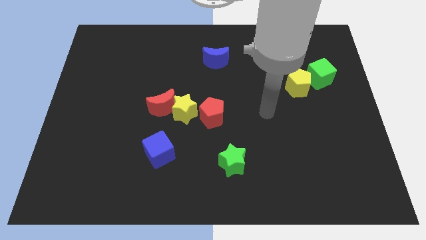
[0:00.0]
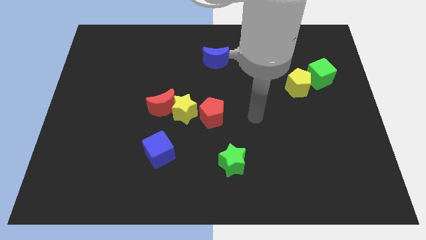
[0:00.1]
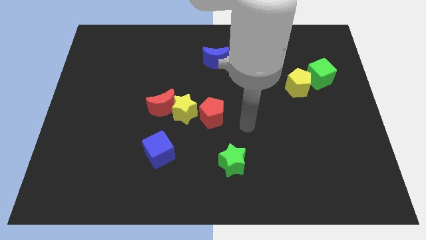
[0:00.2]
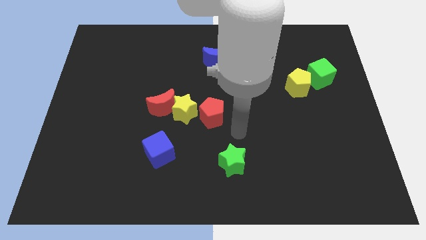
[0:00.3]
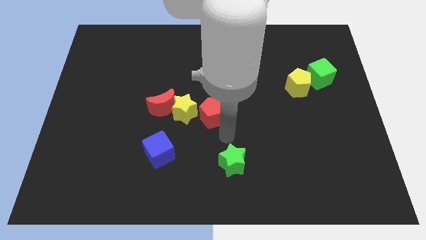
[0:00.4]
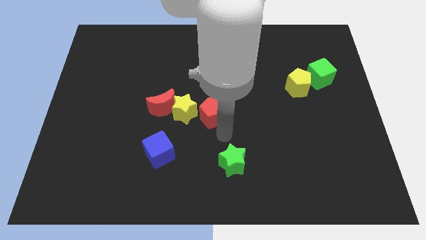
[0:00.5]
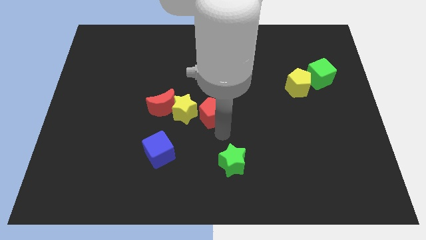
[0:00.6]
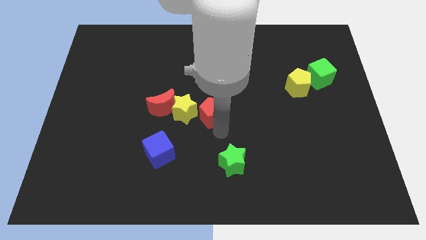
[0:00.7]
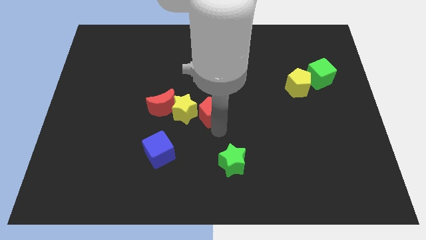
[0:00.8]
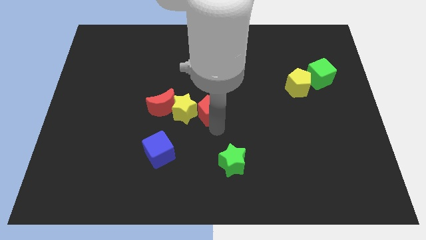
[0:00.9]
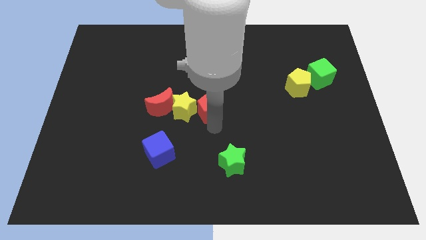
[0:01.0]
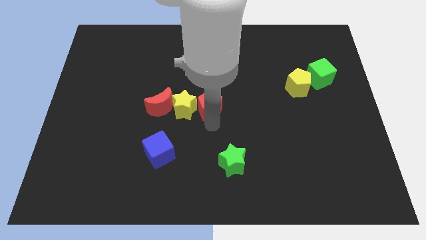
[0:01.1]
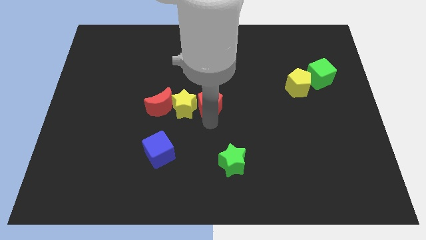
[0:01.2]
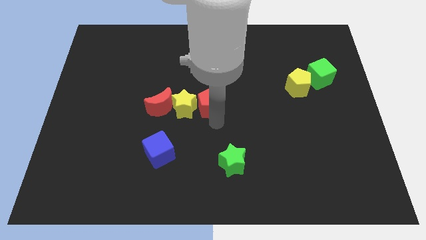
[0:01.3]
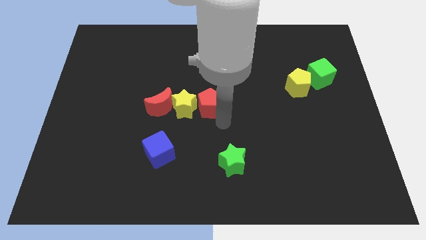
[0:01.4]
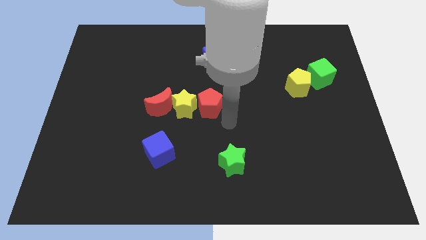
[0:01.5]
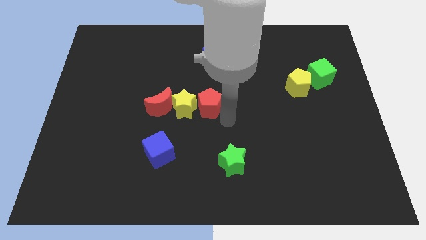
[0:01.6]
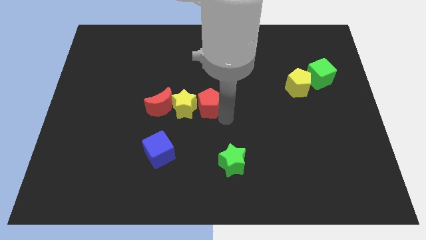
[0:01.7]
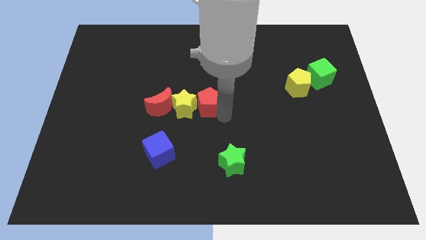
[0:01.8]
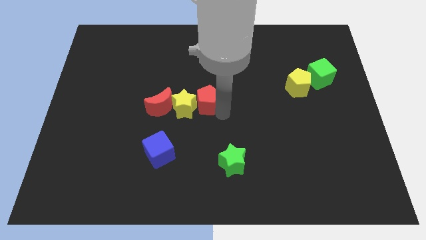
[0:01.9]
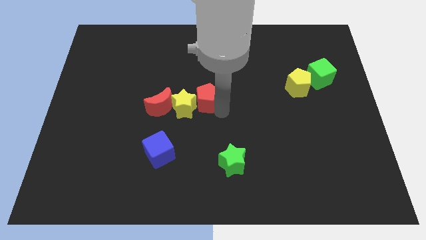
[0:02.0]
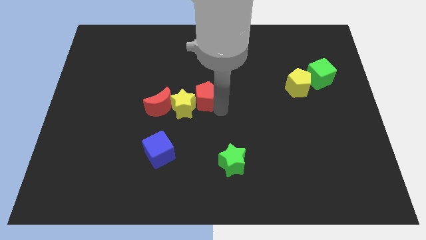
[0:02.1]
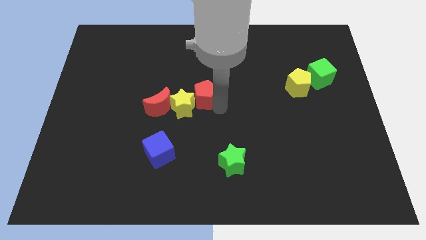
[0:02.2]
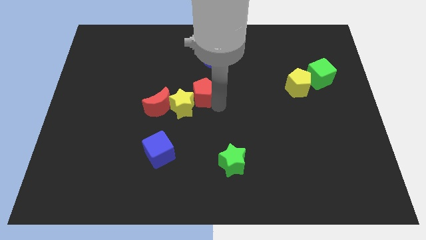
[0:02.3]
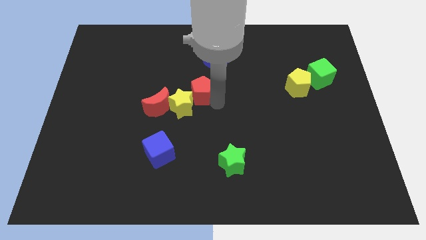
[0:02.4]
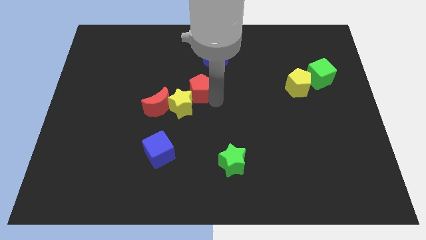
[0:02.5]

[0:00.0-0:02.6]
slide the red pentagon slightly upwards and left

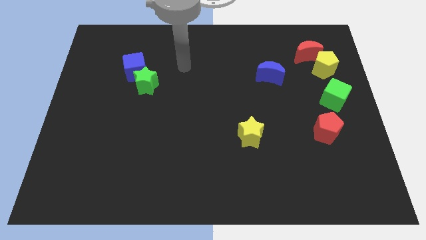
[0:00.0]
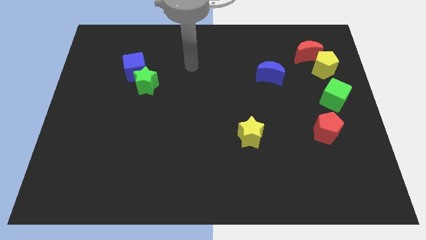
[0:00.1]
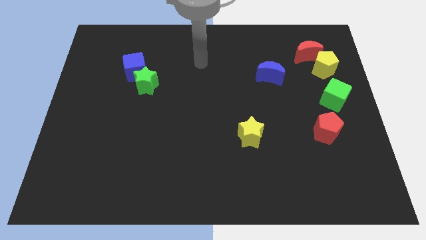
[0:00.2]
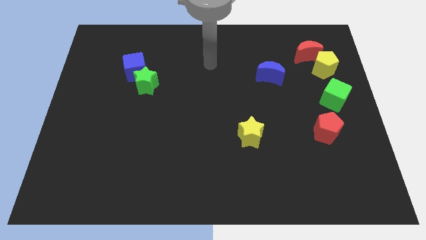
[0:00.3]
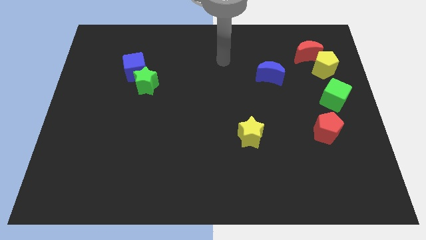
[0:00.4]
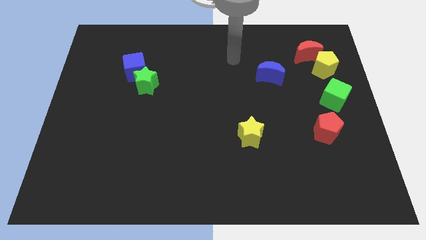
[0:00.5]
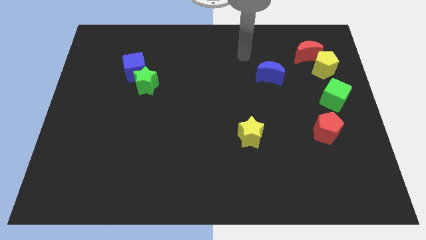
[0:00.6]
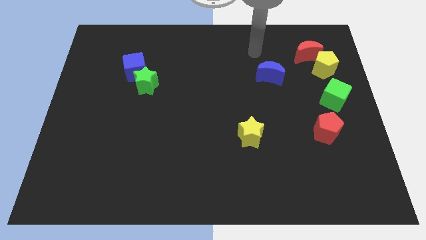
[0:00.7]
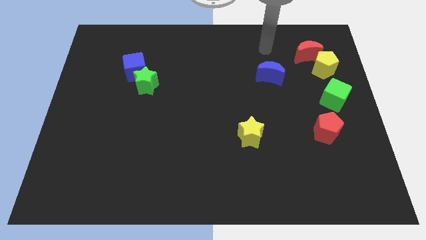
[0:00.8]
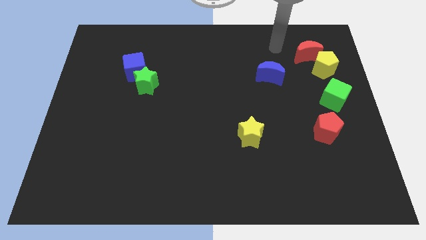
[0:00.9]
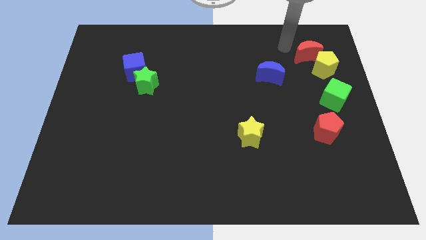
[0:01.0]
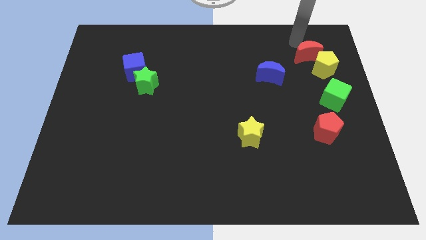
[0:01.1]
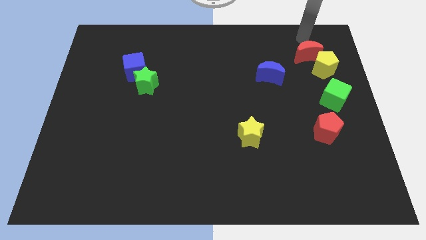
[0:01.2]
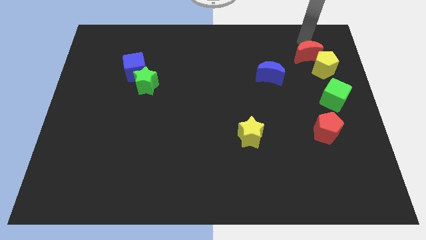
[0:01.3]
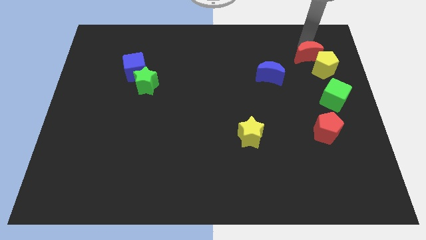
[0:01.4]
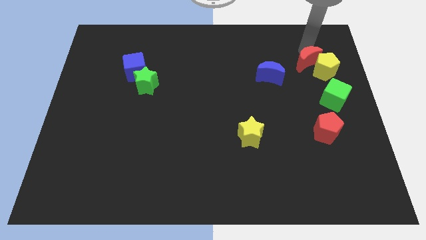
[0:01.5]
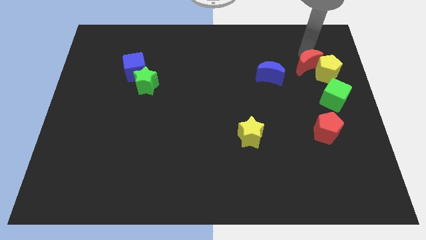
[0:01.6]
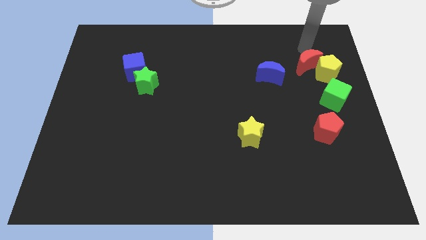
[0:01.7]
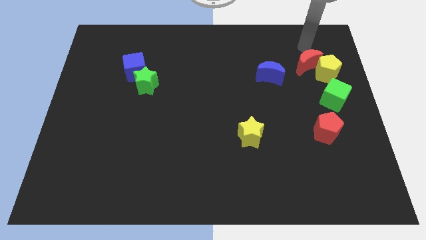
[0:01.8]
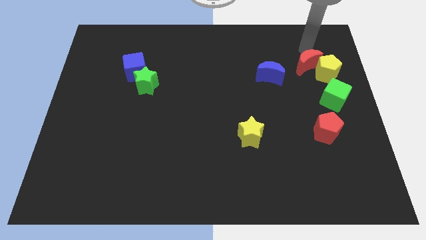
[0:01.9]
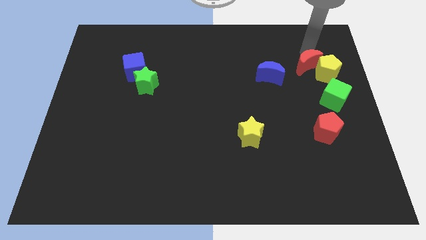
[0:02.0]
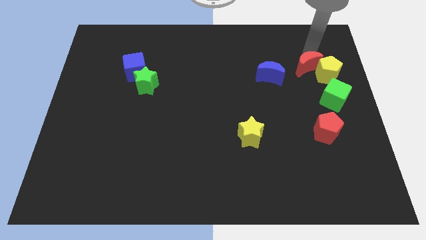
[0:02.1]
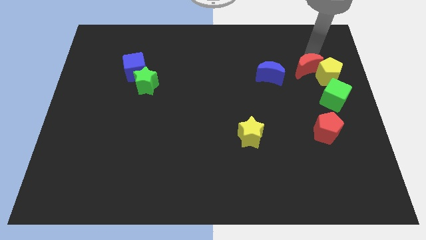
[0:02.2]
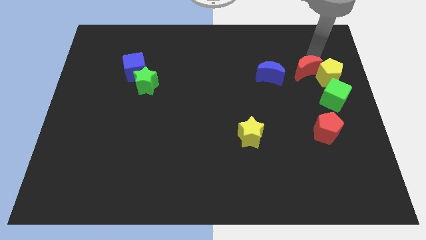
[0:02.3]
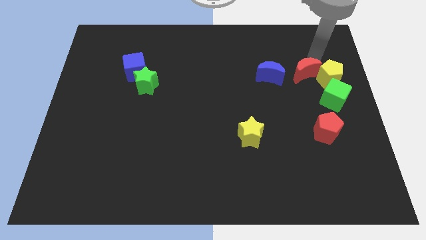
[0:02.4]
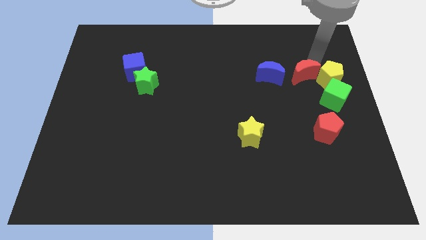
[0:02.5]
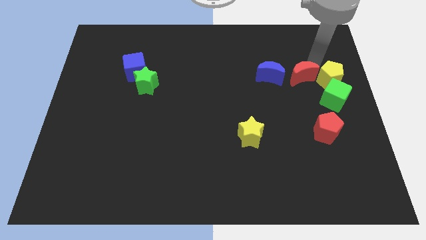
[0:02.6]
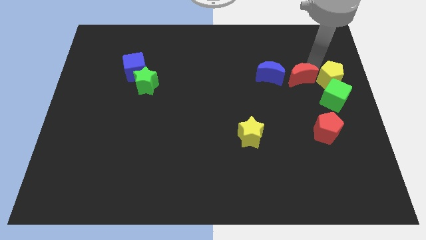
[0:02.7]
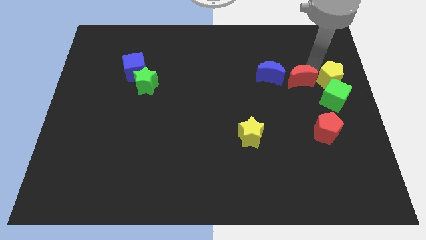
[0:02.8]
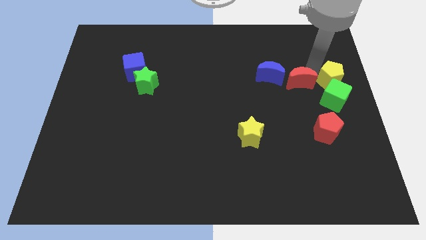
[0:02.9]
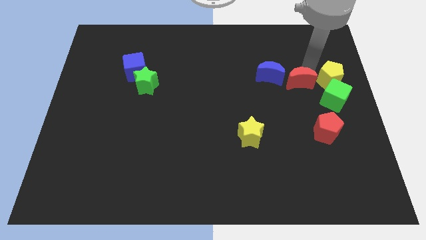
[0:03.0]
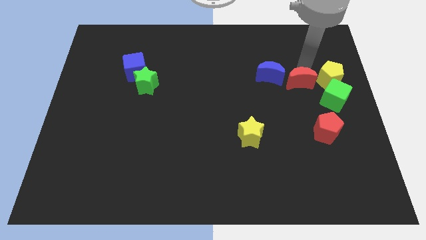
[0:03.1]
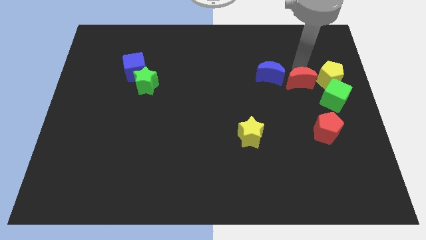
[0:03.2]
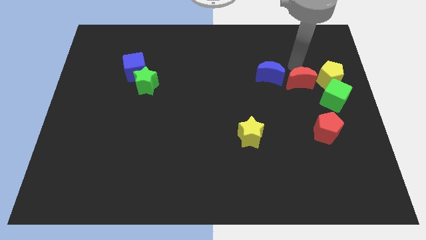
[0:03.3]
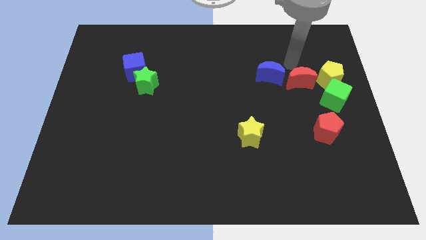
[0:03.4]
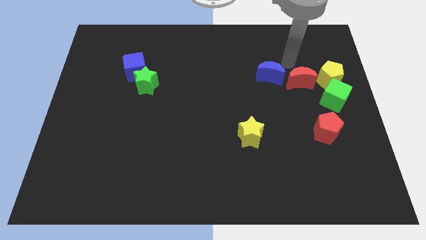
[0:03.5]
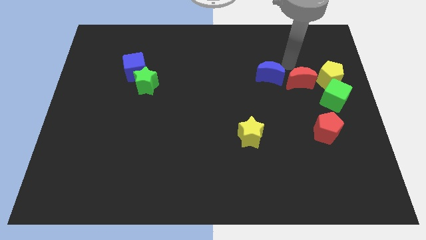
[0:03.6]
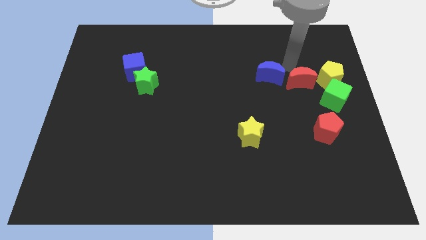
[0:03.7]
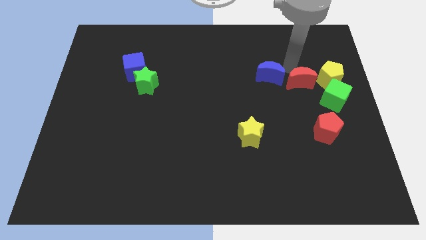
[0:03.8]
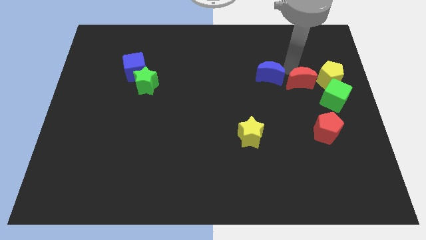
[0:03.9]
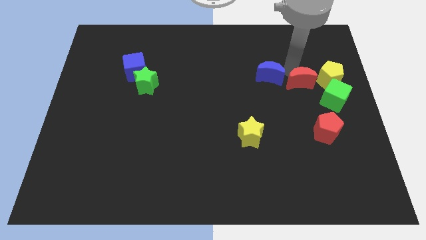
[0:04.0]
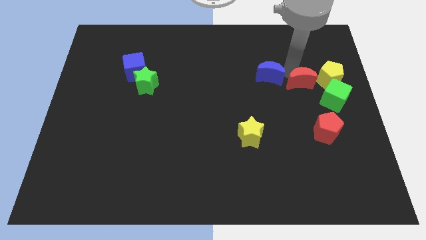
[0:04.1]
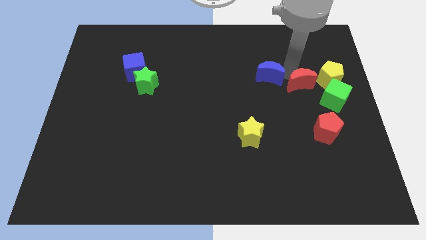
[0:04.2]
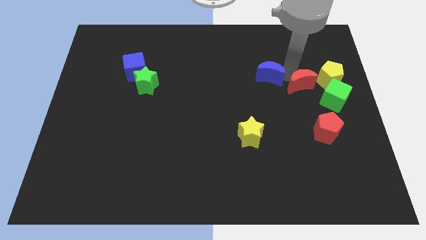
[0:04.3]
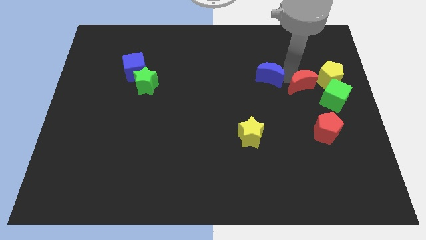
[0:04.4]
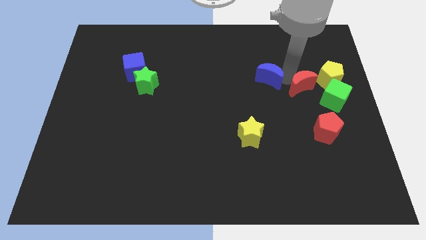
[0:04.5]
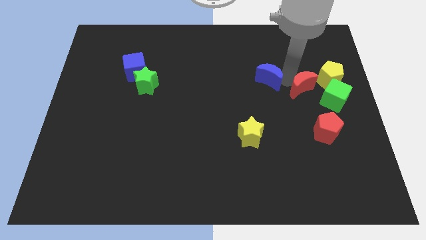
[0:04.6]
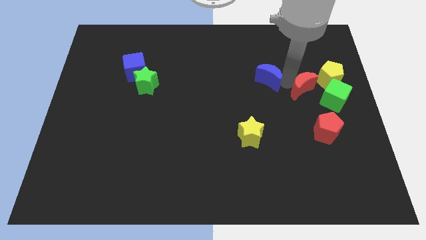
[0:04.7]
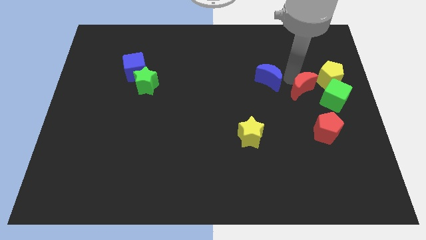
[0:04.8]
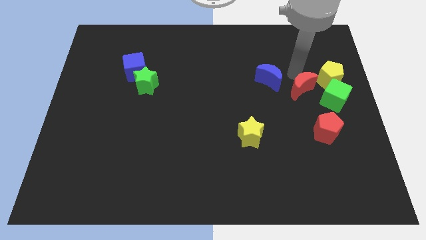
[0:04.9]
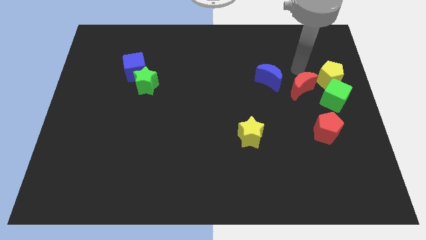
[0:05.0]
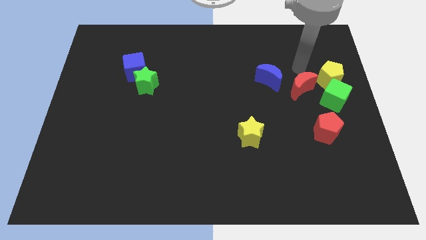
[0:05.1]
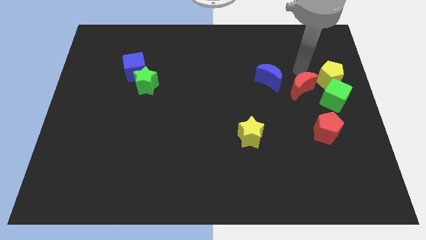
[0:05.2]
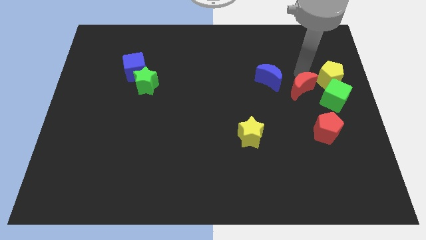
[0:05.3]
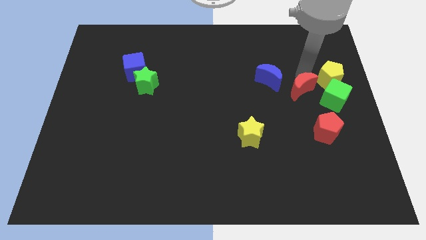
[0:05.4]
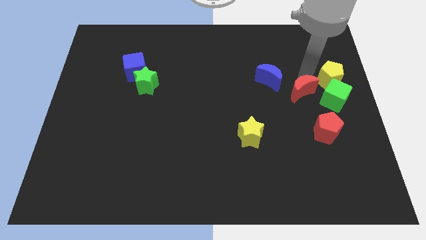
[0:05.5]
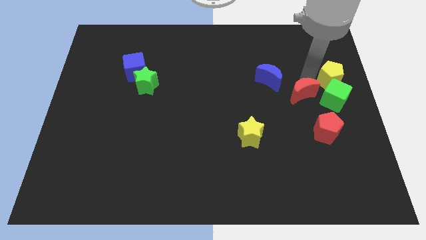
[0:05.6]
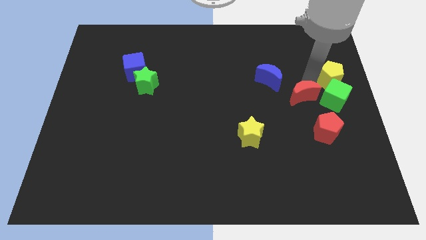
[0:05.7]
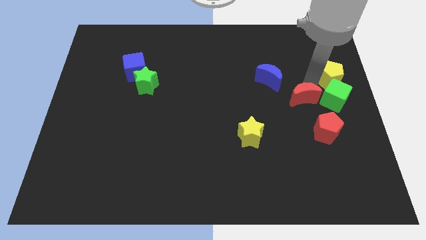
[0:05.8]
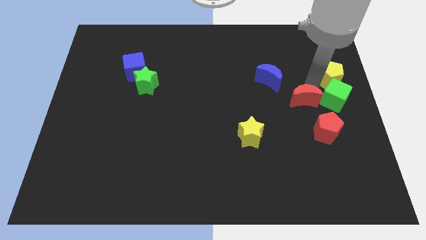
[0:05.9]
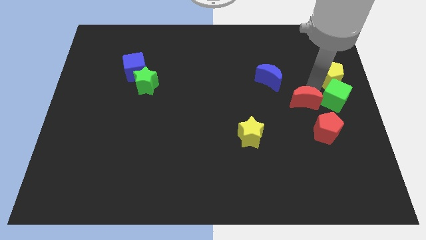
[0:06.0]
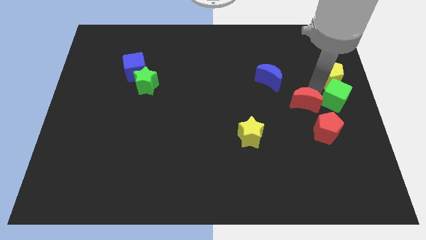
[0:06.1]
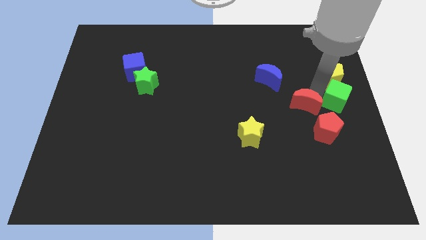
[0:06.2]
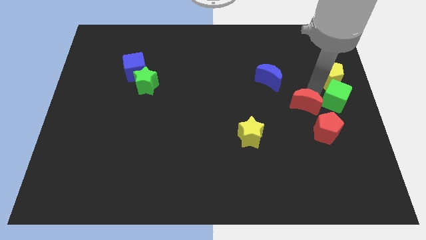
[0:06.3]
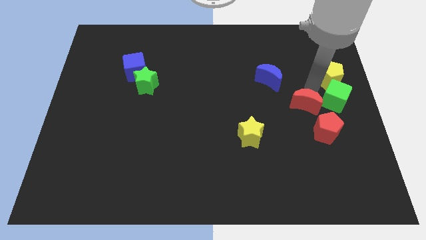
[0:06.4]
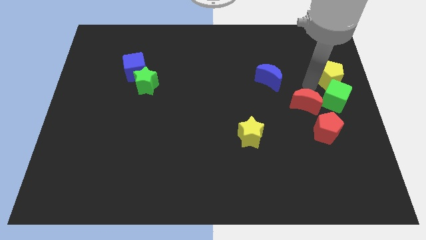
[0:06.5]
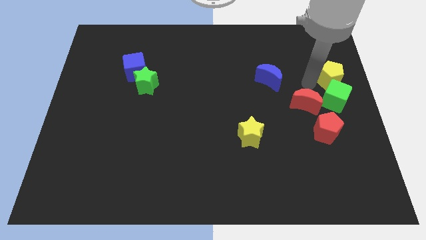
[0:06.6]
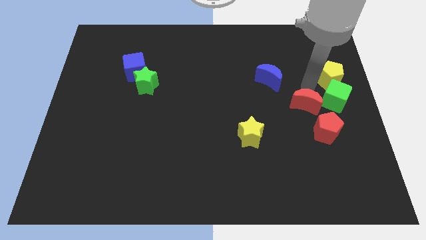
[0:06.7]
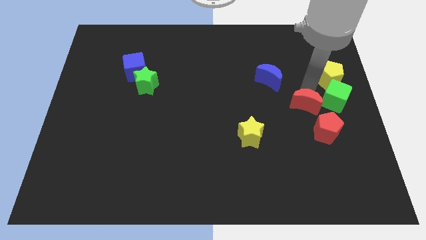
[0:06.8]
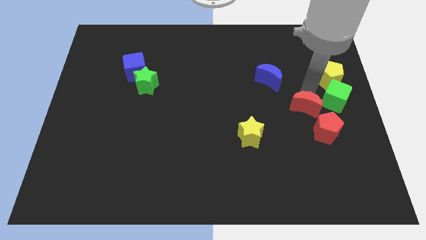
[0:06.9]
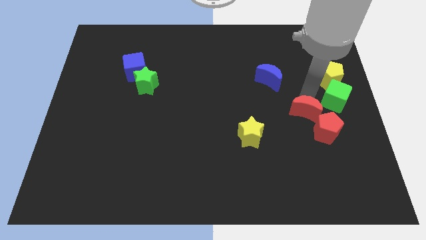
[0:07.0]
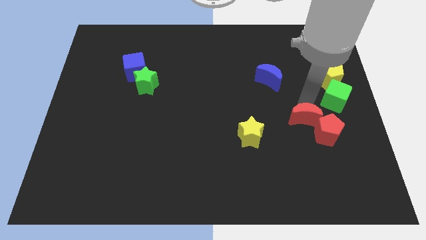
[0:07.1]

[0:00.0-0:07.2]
move the red moon down
